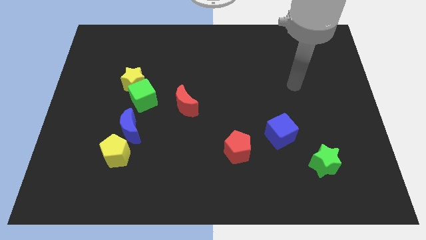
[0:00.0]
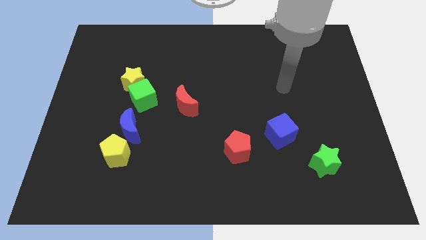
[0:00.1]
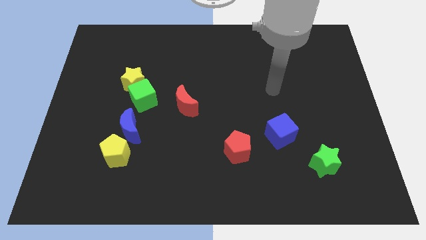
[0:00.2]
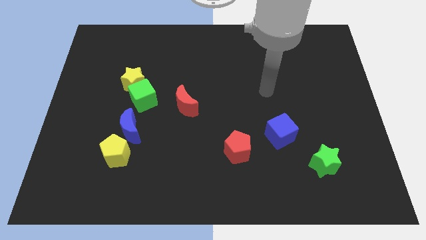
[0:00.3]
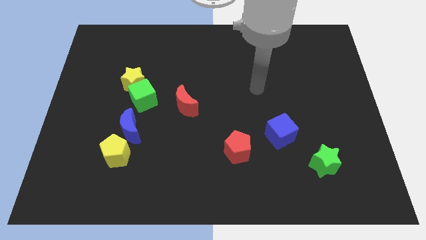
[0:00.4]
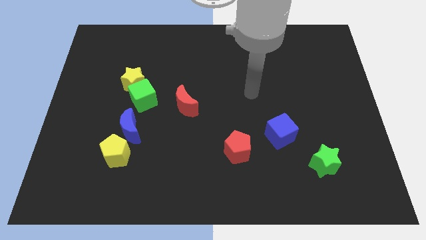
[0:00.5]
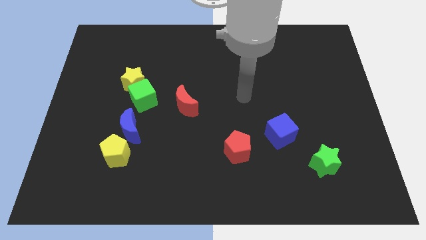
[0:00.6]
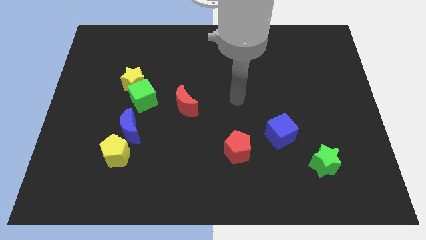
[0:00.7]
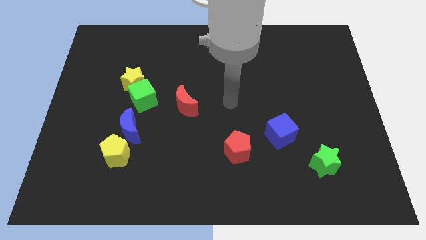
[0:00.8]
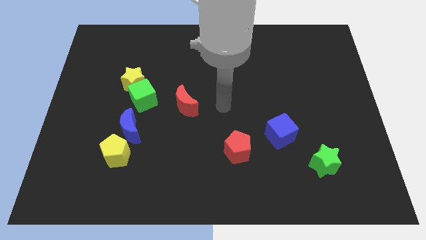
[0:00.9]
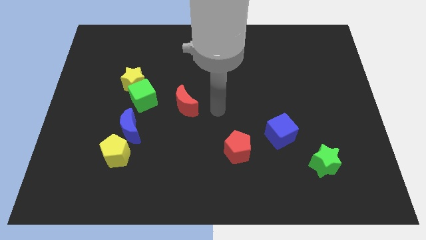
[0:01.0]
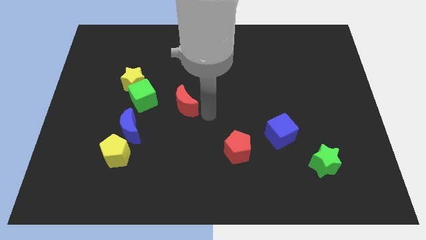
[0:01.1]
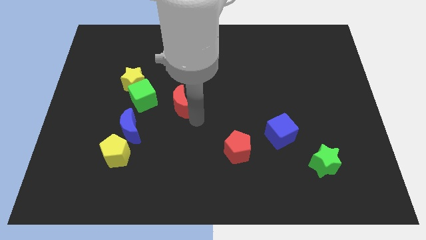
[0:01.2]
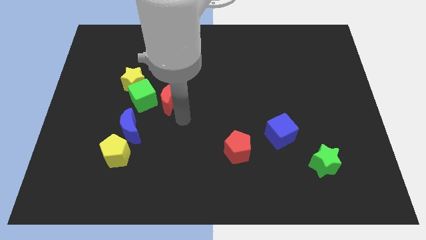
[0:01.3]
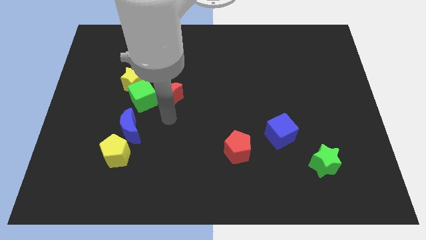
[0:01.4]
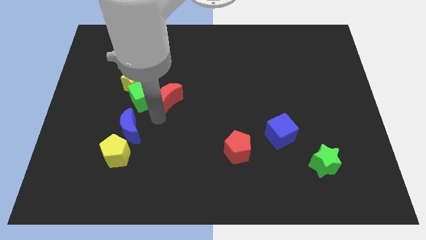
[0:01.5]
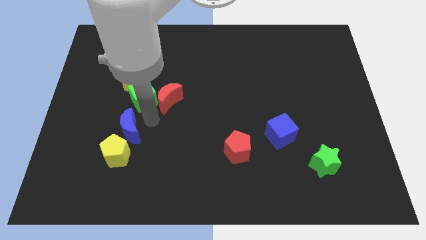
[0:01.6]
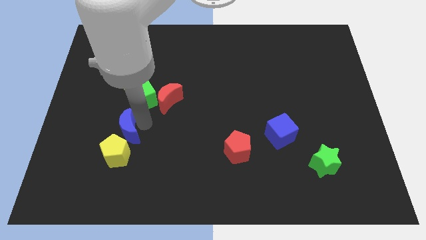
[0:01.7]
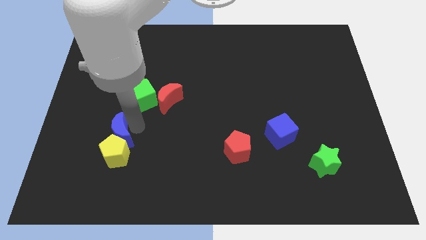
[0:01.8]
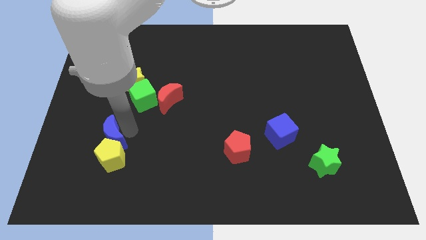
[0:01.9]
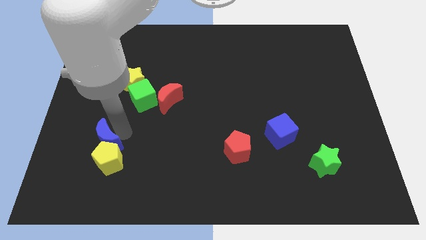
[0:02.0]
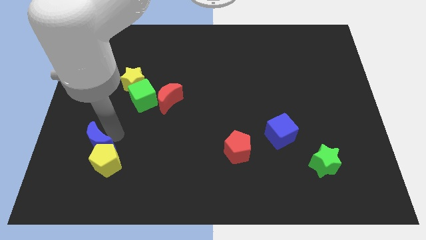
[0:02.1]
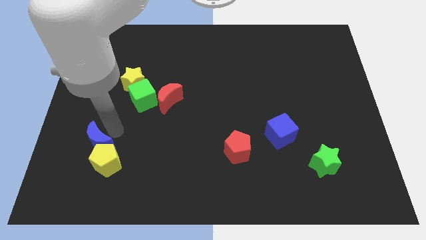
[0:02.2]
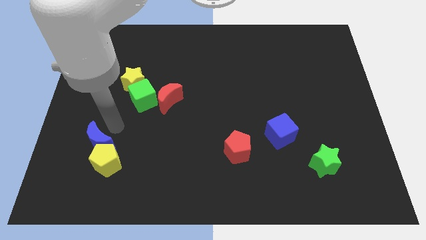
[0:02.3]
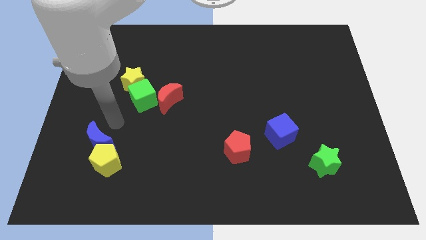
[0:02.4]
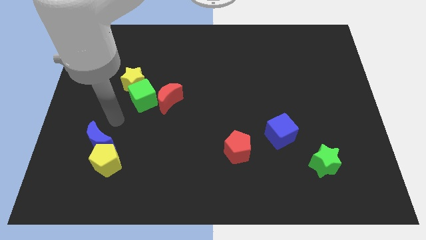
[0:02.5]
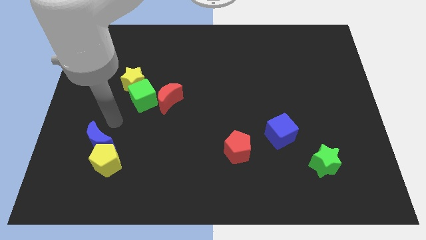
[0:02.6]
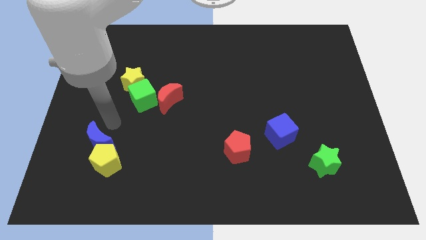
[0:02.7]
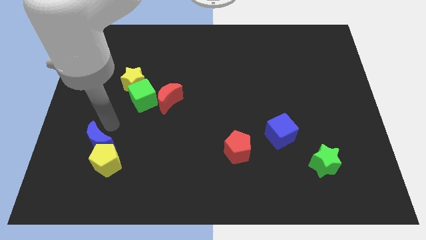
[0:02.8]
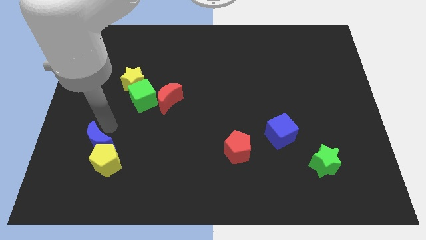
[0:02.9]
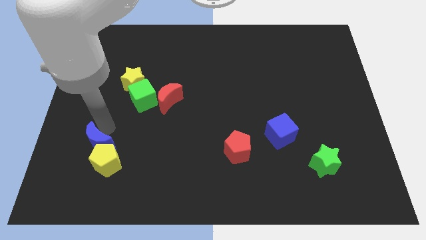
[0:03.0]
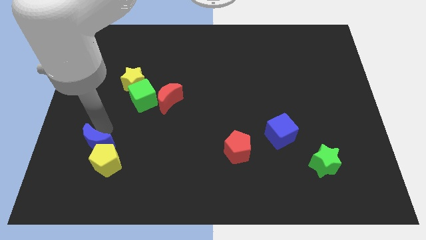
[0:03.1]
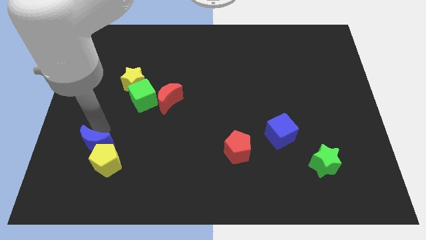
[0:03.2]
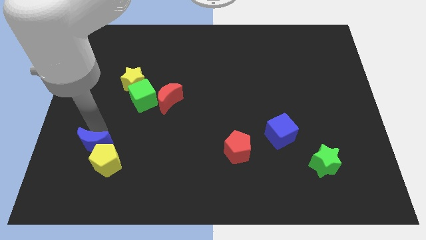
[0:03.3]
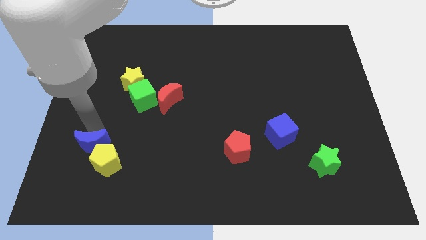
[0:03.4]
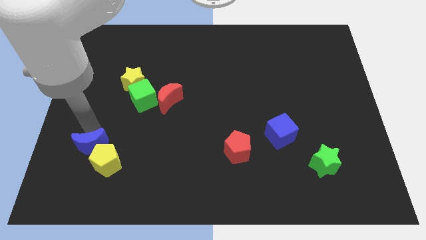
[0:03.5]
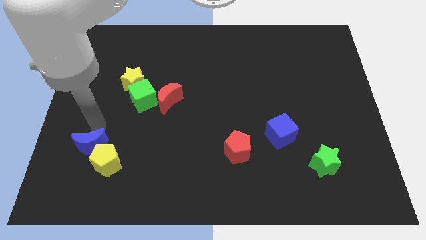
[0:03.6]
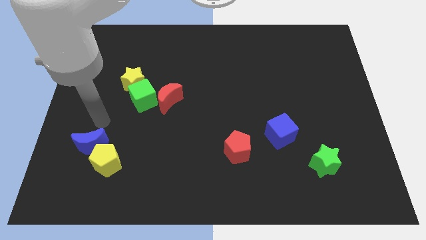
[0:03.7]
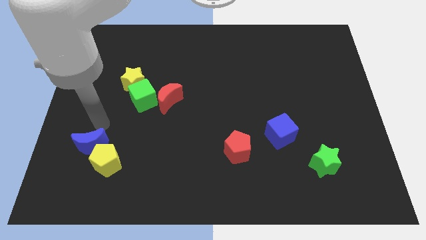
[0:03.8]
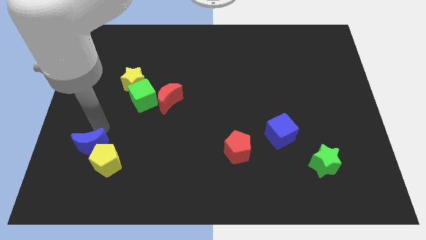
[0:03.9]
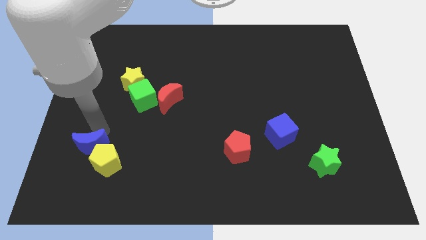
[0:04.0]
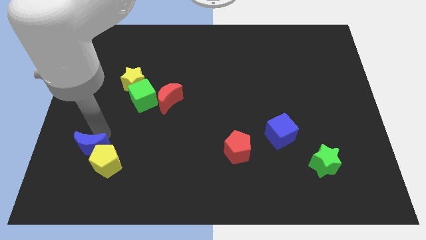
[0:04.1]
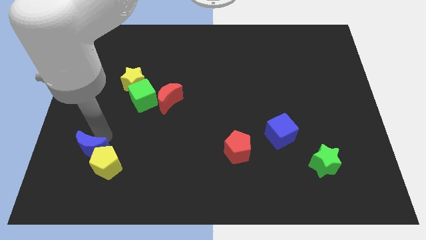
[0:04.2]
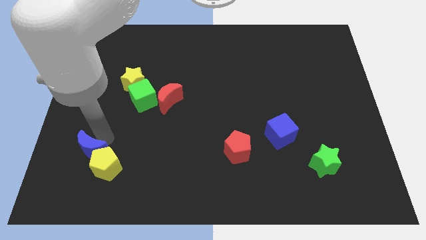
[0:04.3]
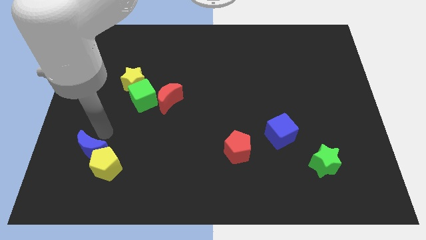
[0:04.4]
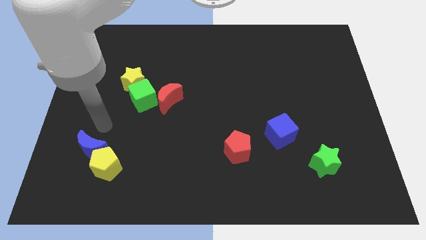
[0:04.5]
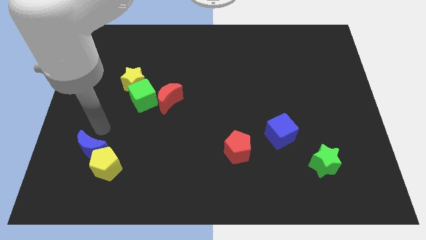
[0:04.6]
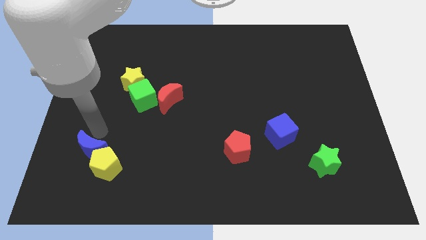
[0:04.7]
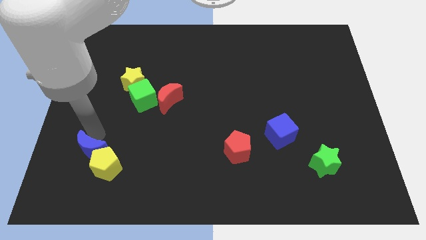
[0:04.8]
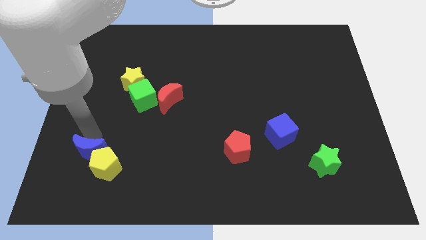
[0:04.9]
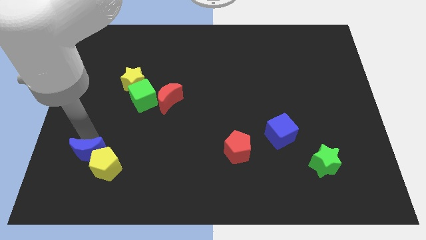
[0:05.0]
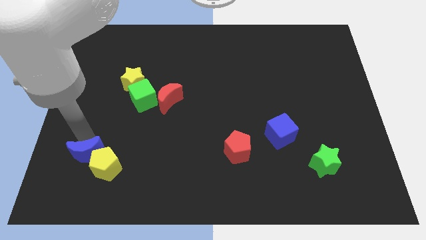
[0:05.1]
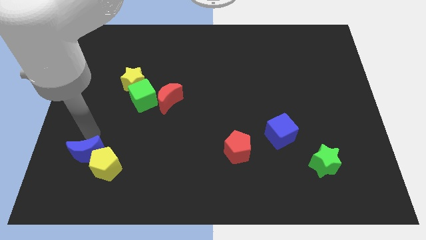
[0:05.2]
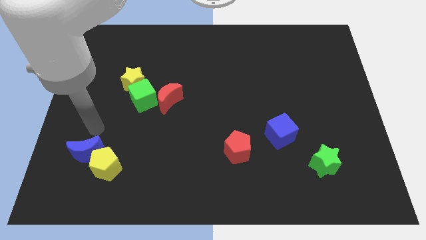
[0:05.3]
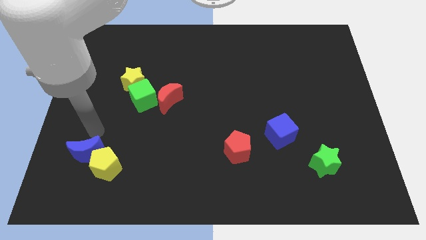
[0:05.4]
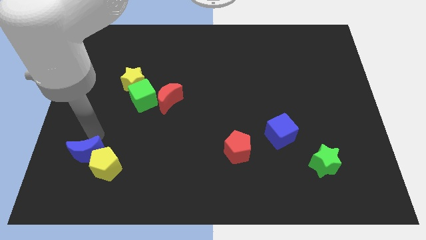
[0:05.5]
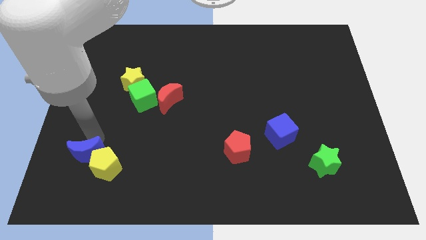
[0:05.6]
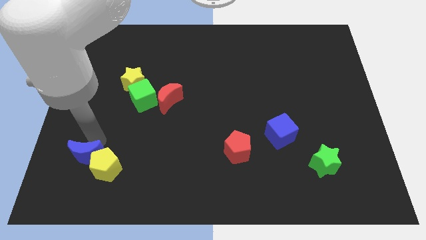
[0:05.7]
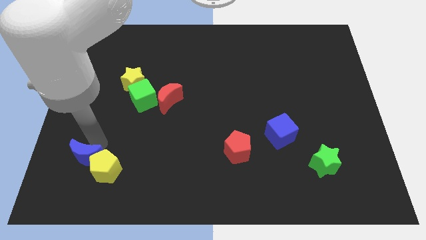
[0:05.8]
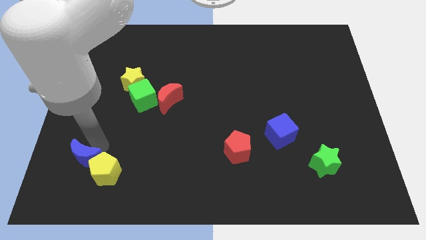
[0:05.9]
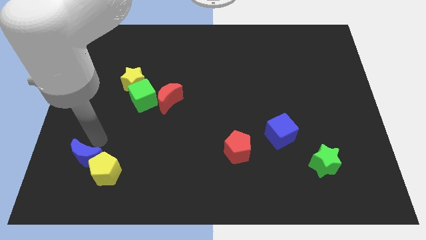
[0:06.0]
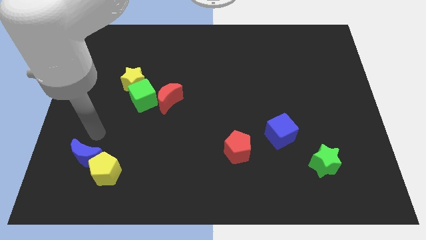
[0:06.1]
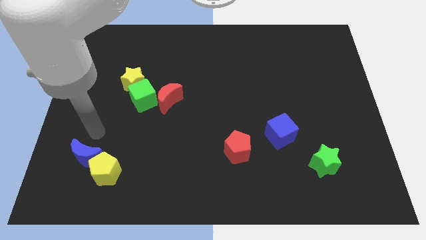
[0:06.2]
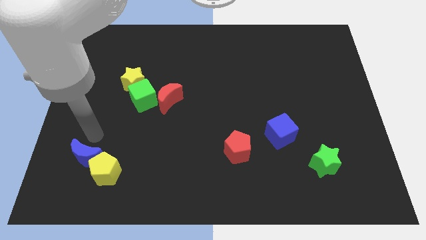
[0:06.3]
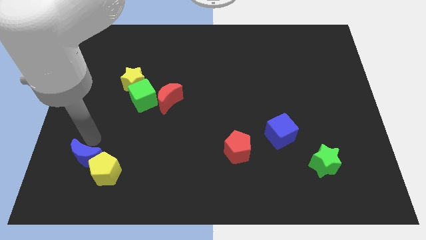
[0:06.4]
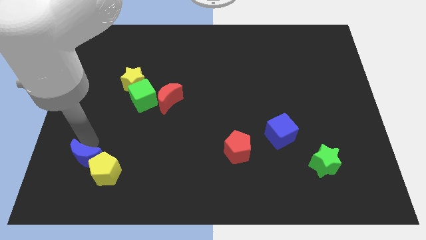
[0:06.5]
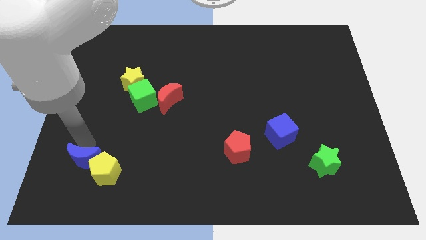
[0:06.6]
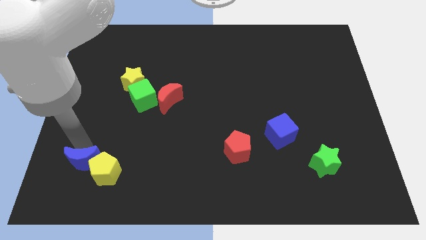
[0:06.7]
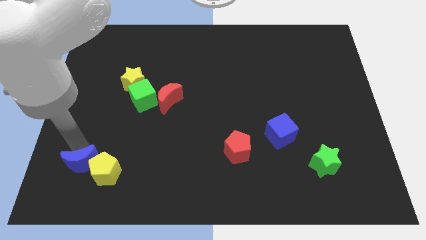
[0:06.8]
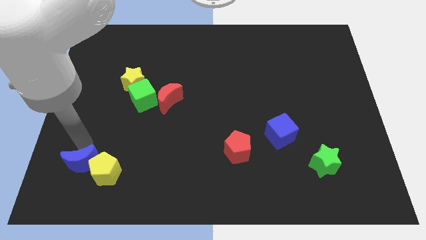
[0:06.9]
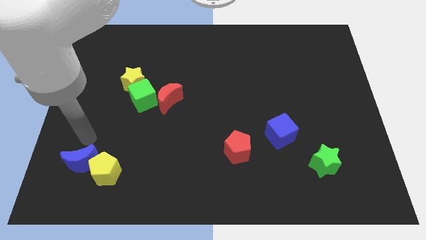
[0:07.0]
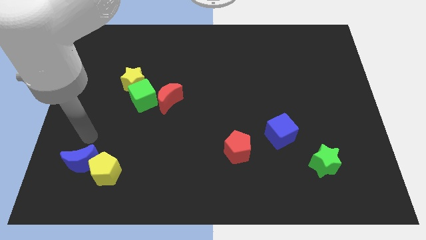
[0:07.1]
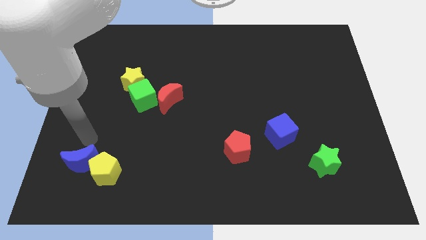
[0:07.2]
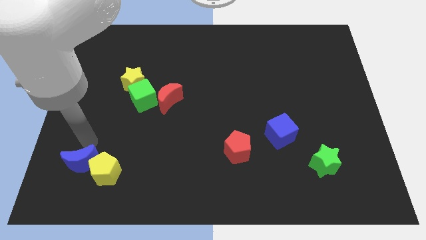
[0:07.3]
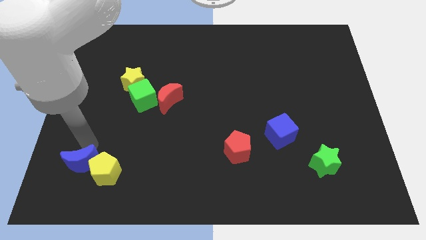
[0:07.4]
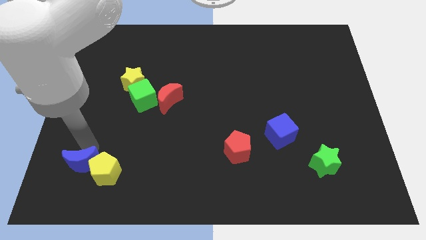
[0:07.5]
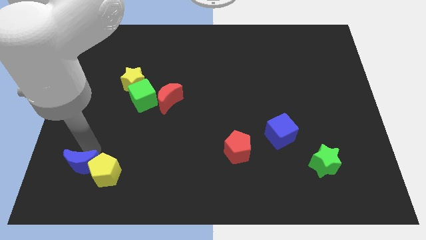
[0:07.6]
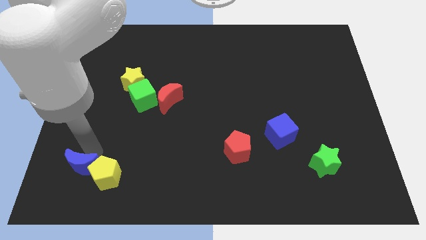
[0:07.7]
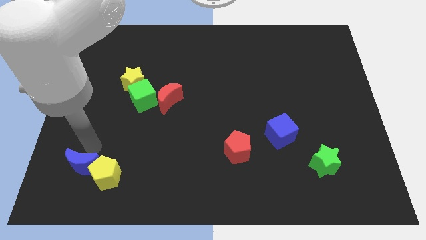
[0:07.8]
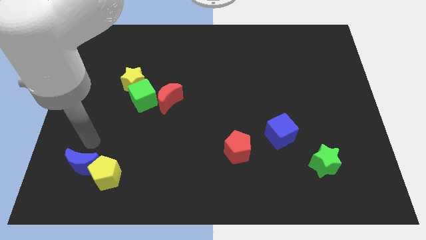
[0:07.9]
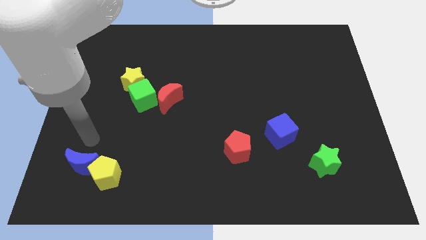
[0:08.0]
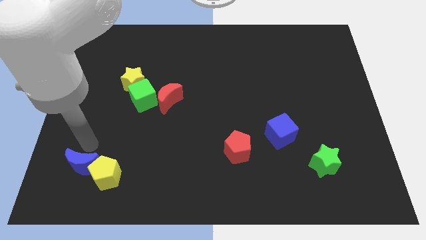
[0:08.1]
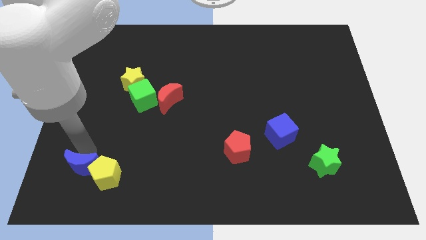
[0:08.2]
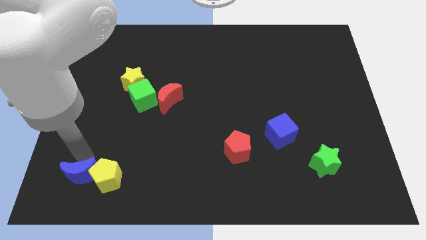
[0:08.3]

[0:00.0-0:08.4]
push the blue moon to the bottom left side of the yellow pentagon
